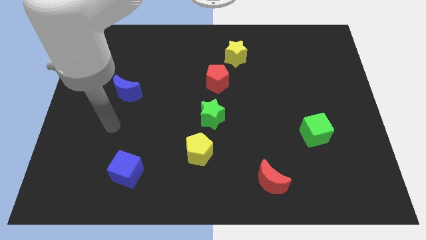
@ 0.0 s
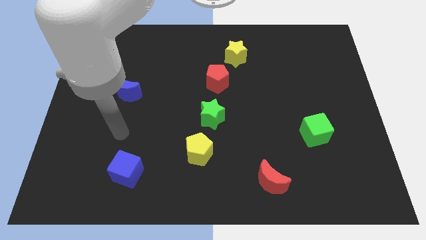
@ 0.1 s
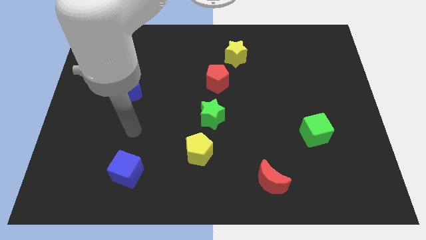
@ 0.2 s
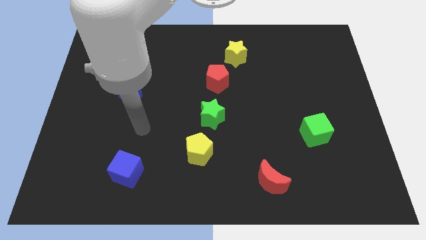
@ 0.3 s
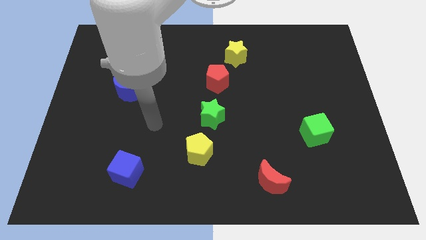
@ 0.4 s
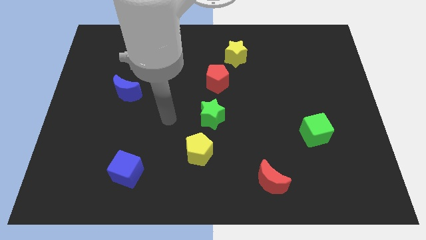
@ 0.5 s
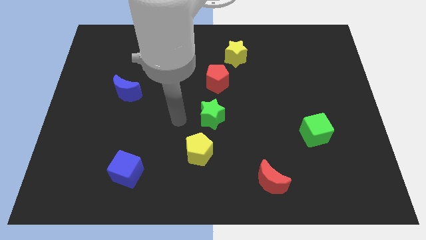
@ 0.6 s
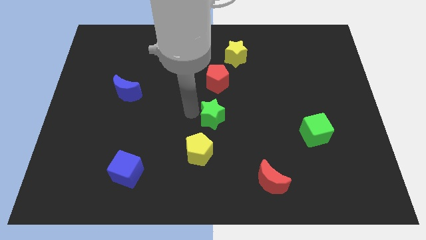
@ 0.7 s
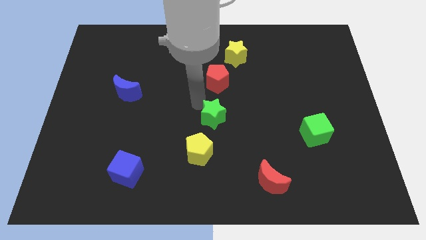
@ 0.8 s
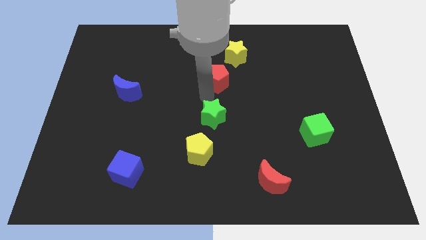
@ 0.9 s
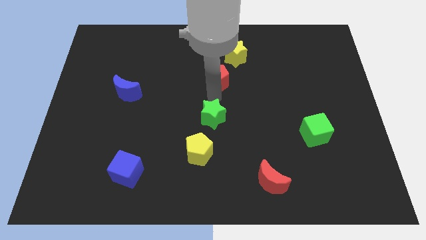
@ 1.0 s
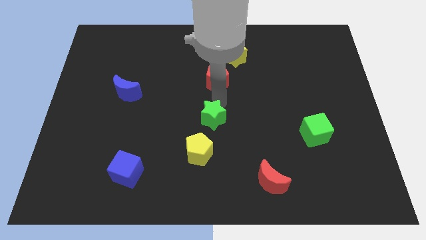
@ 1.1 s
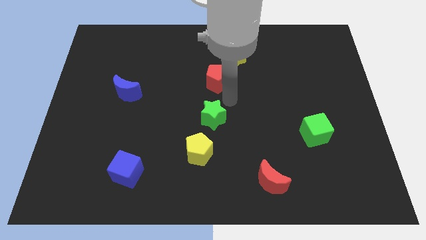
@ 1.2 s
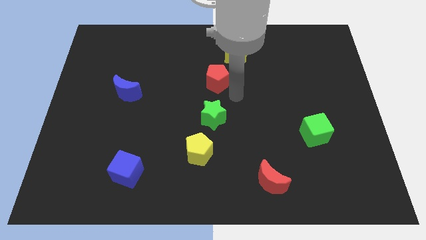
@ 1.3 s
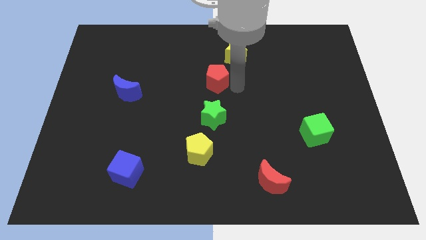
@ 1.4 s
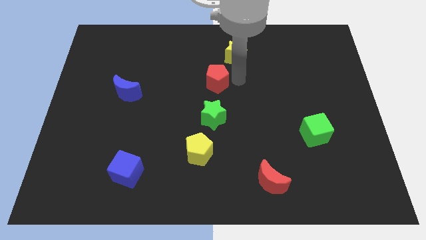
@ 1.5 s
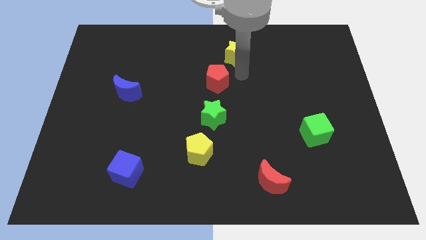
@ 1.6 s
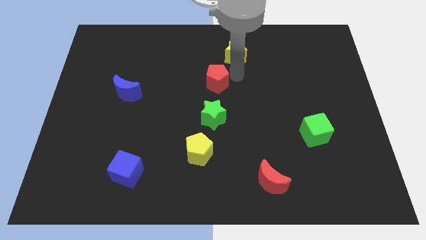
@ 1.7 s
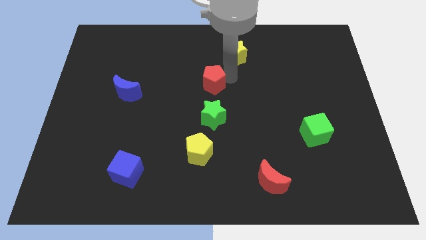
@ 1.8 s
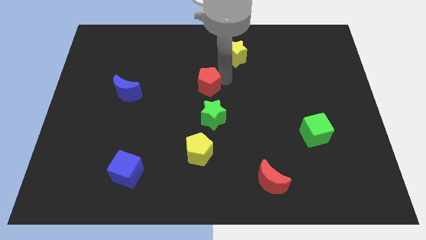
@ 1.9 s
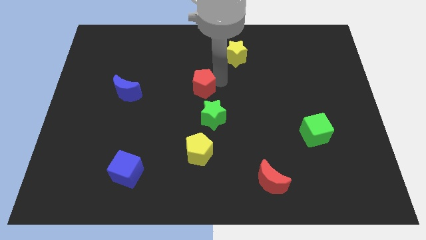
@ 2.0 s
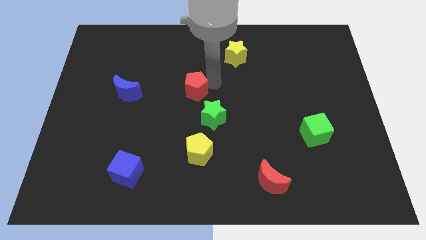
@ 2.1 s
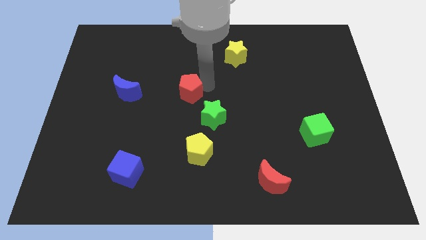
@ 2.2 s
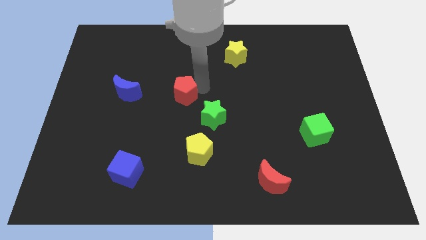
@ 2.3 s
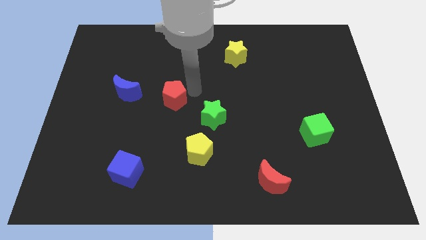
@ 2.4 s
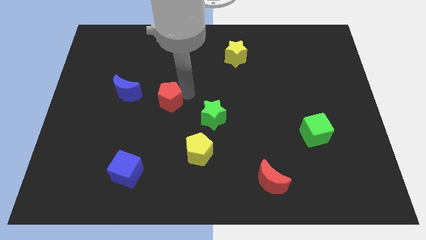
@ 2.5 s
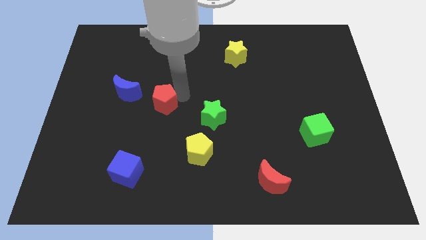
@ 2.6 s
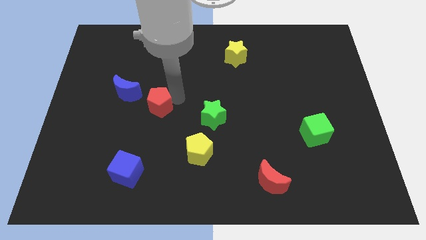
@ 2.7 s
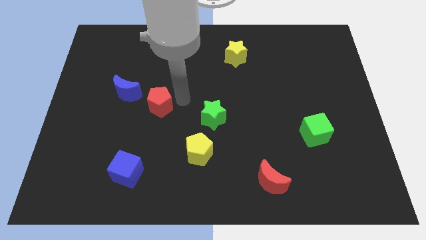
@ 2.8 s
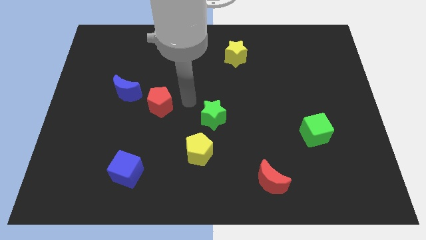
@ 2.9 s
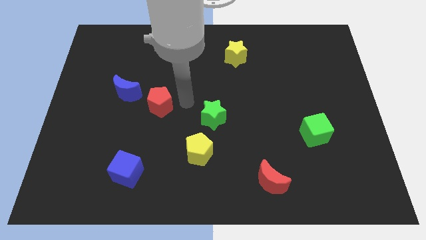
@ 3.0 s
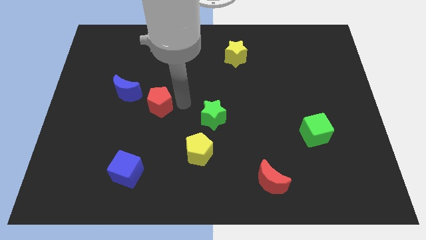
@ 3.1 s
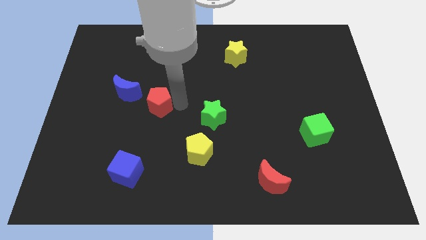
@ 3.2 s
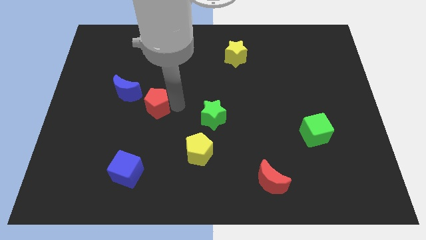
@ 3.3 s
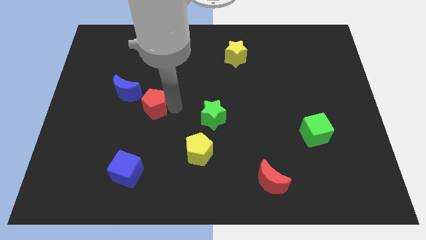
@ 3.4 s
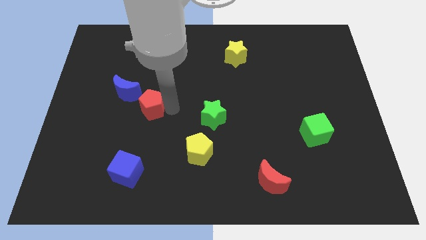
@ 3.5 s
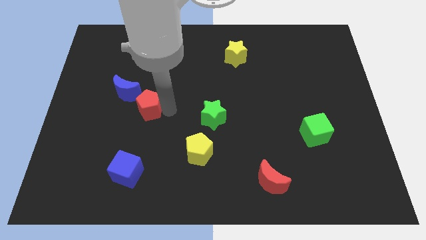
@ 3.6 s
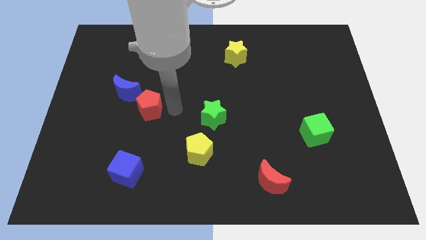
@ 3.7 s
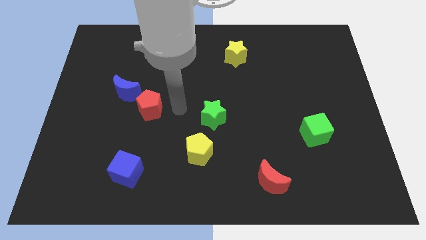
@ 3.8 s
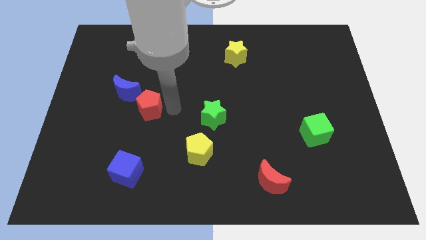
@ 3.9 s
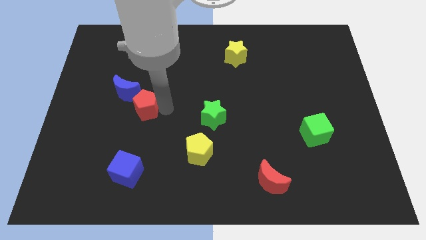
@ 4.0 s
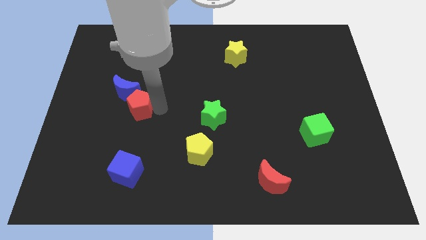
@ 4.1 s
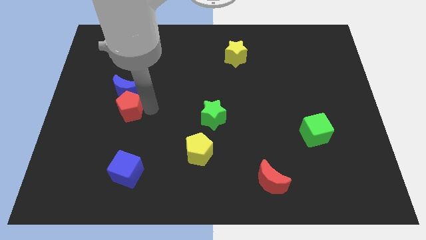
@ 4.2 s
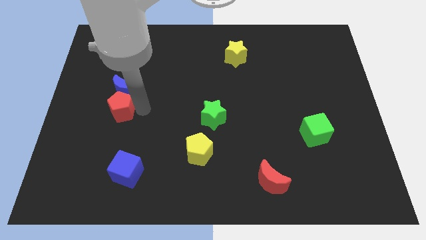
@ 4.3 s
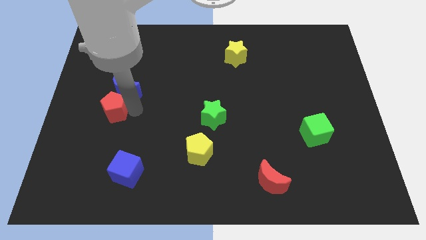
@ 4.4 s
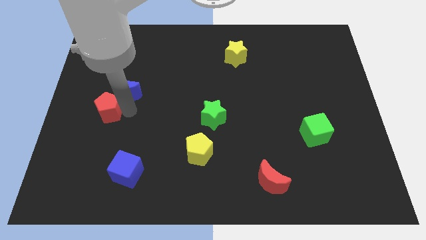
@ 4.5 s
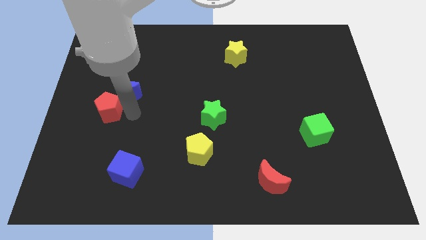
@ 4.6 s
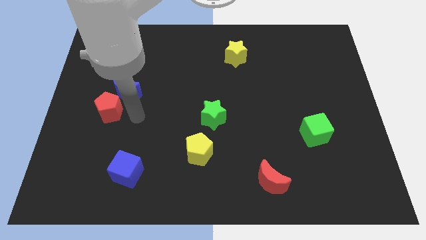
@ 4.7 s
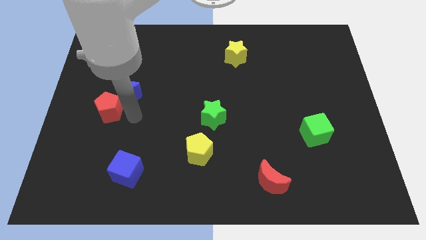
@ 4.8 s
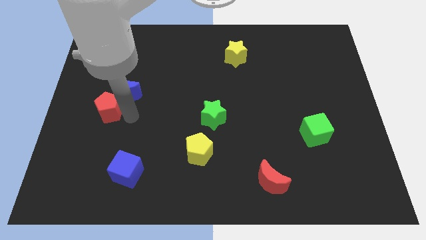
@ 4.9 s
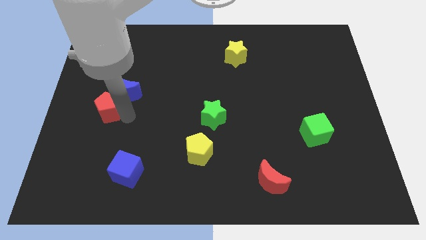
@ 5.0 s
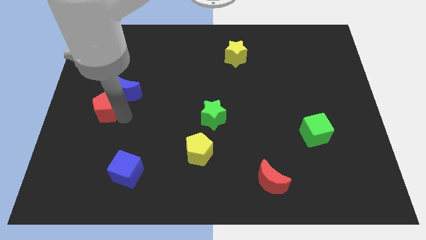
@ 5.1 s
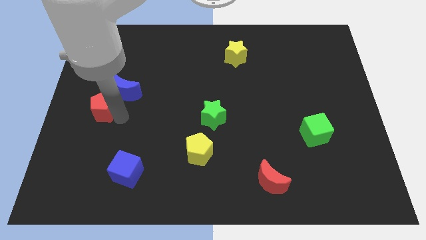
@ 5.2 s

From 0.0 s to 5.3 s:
put the red pentagon to the center left

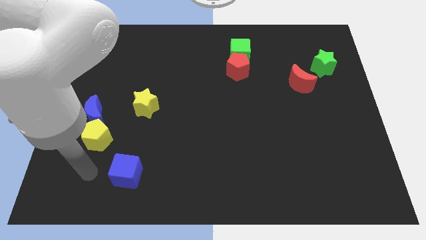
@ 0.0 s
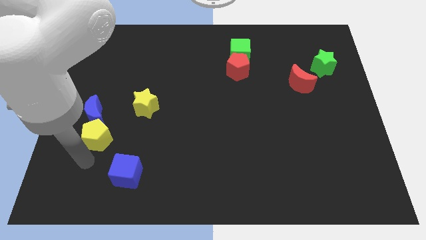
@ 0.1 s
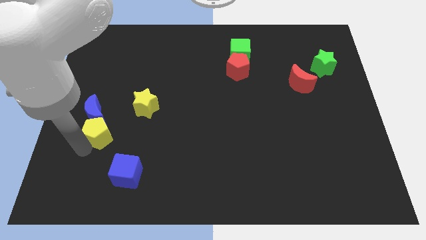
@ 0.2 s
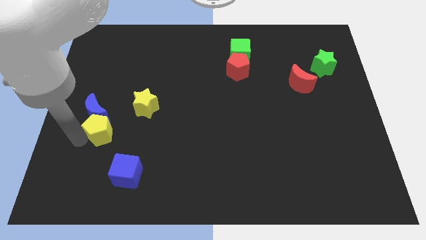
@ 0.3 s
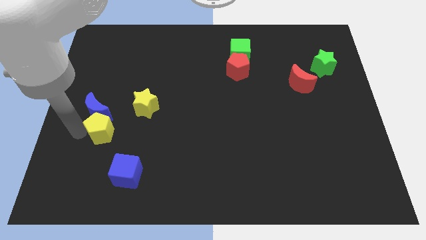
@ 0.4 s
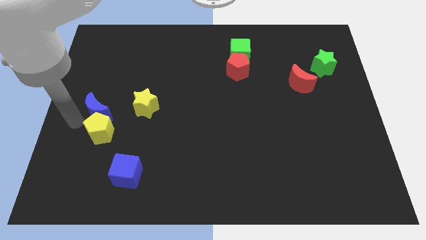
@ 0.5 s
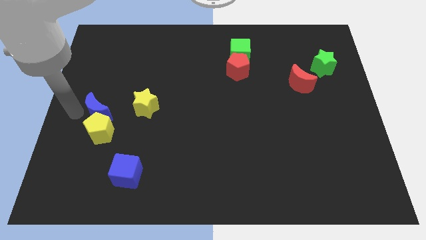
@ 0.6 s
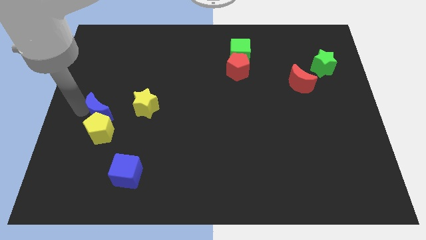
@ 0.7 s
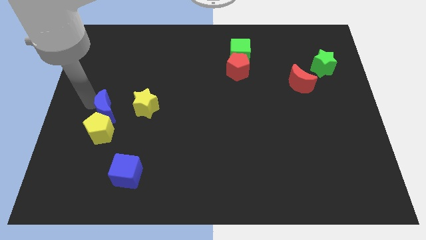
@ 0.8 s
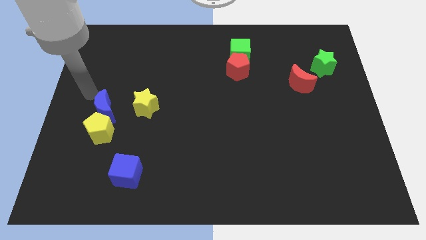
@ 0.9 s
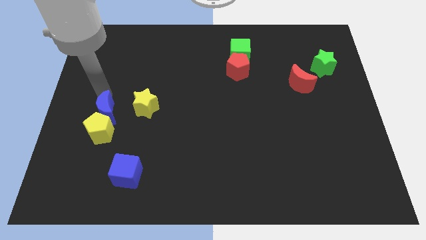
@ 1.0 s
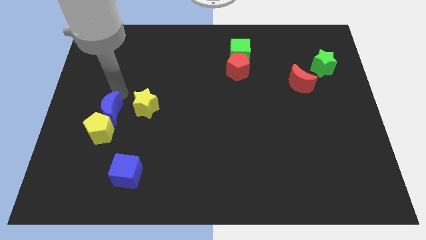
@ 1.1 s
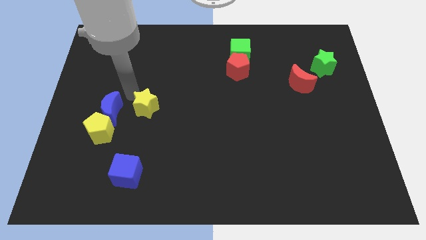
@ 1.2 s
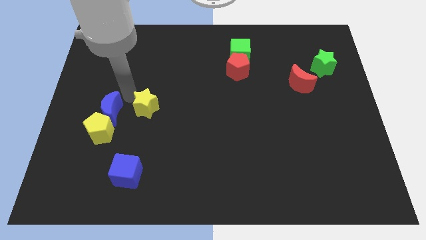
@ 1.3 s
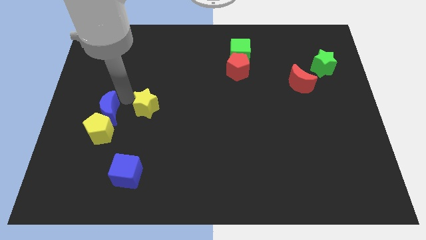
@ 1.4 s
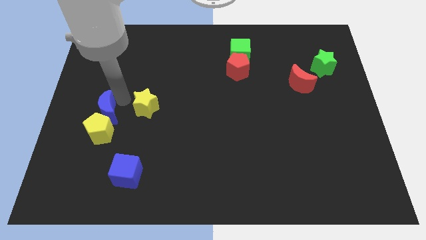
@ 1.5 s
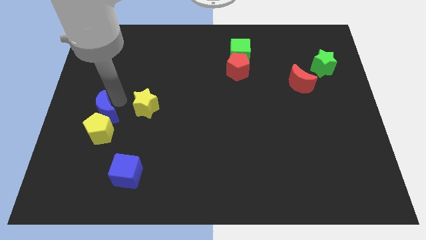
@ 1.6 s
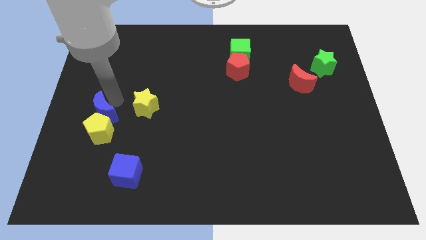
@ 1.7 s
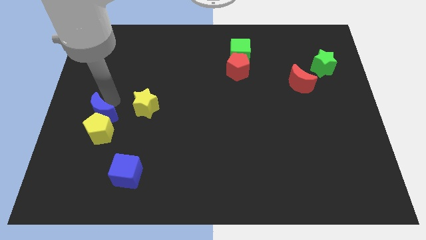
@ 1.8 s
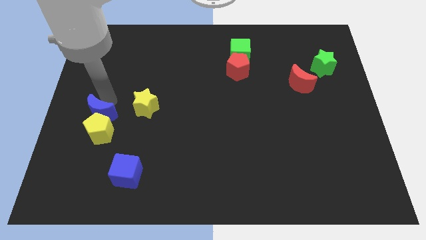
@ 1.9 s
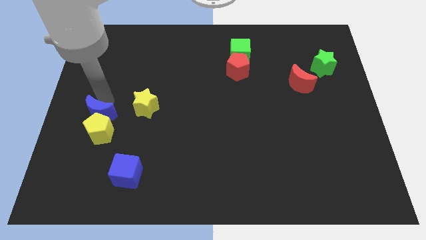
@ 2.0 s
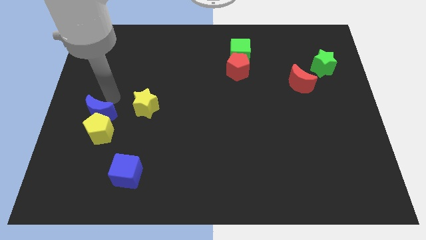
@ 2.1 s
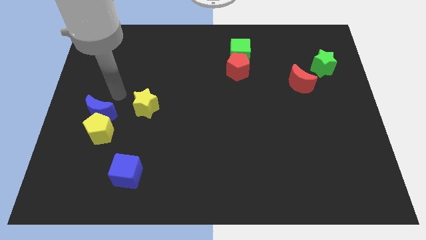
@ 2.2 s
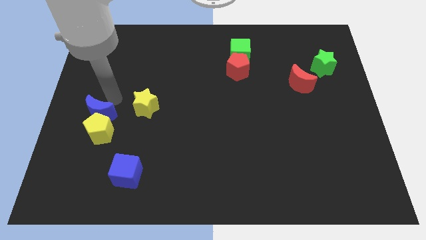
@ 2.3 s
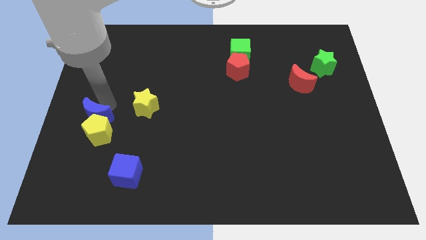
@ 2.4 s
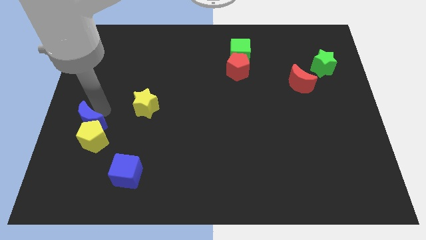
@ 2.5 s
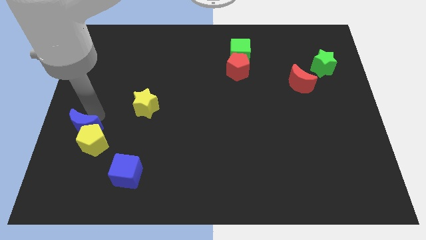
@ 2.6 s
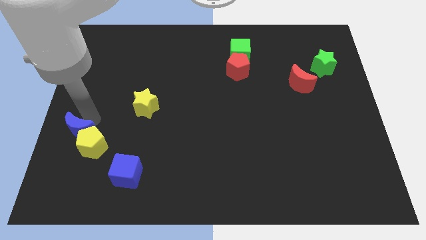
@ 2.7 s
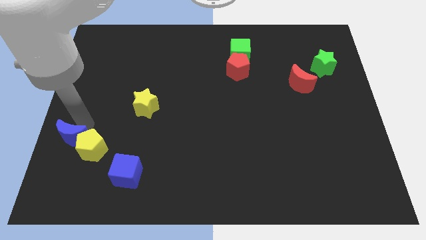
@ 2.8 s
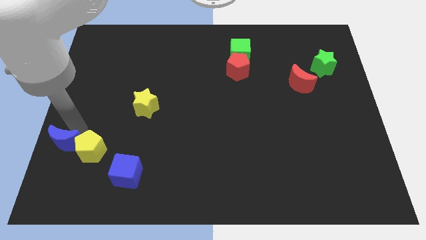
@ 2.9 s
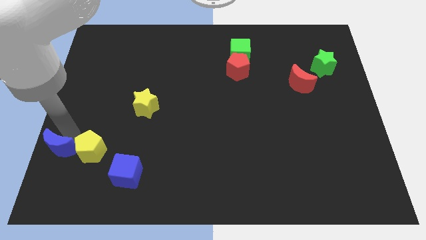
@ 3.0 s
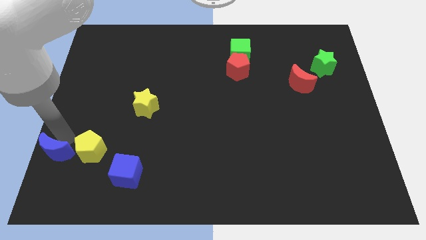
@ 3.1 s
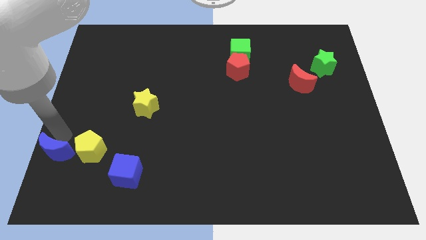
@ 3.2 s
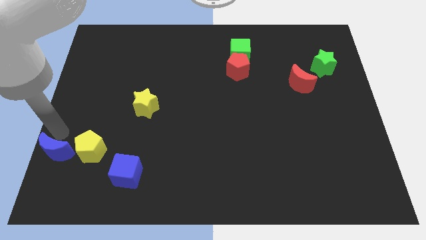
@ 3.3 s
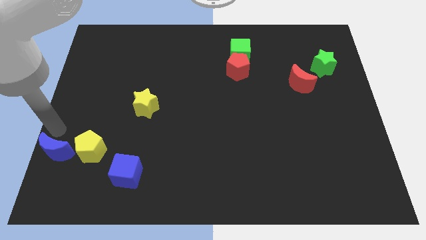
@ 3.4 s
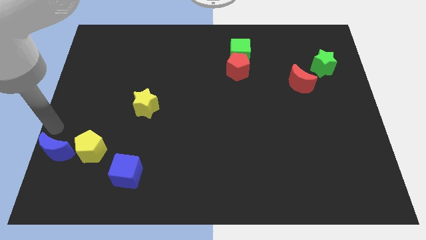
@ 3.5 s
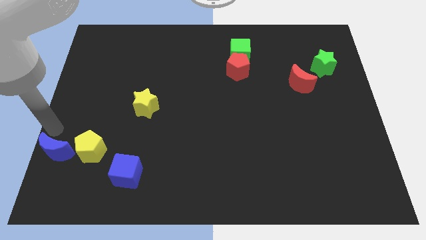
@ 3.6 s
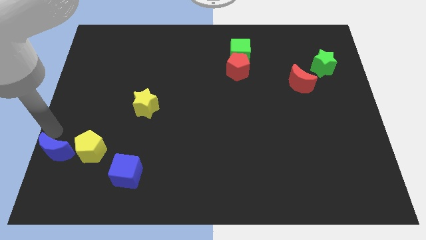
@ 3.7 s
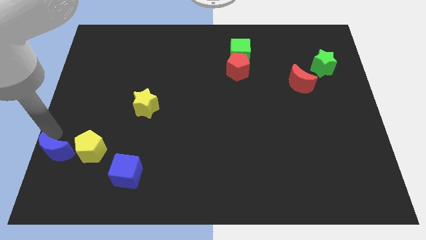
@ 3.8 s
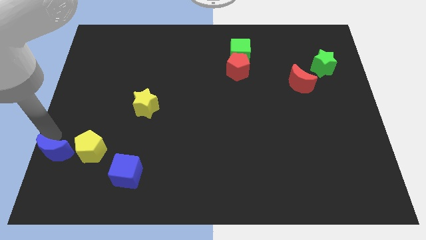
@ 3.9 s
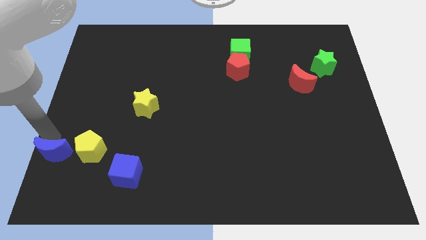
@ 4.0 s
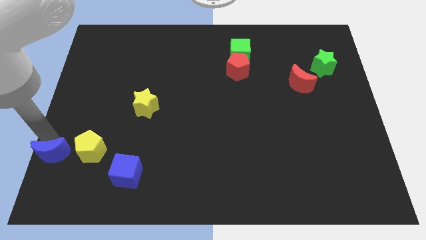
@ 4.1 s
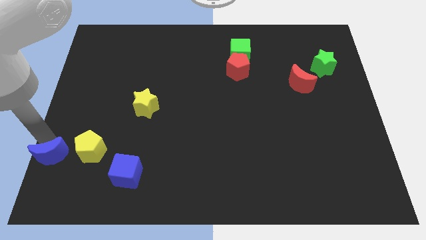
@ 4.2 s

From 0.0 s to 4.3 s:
move the blue moon to the lower left corner
